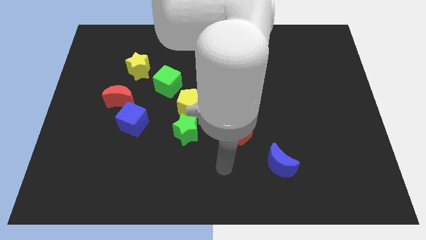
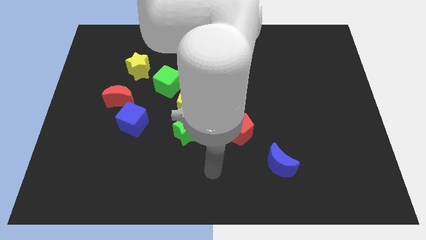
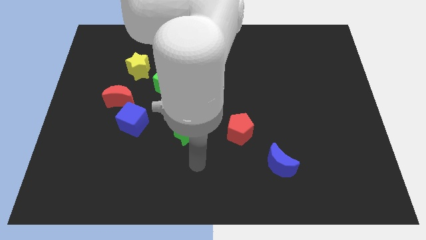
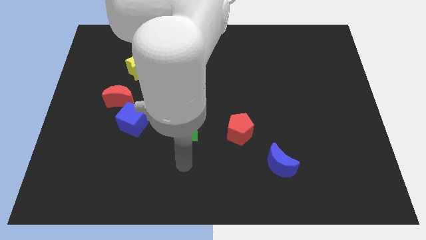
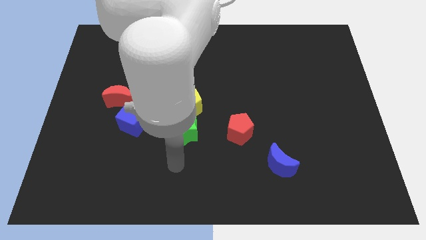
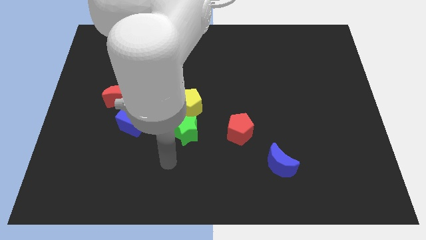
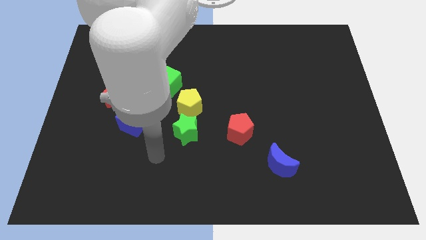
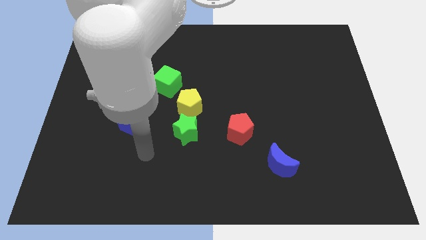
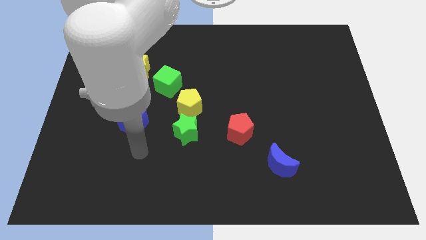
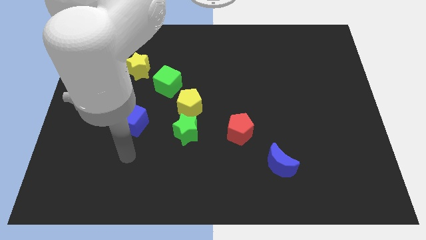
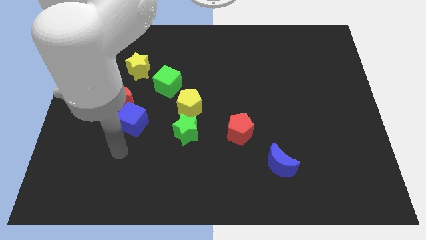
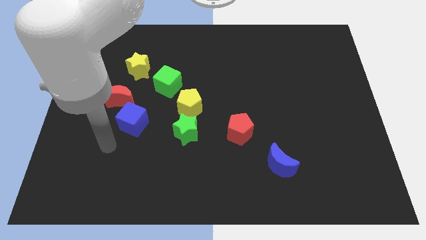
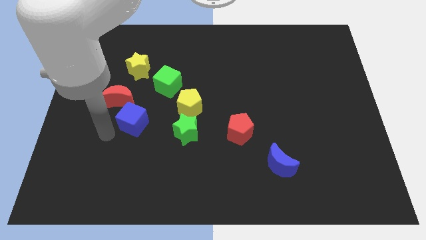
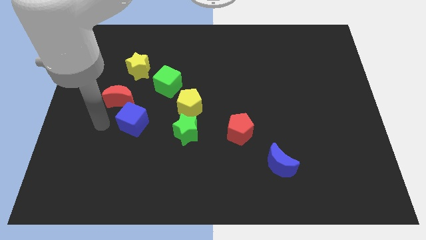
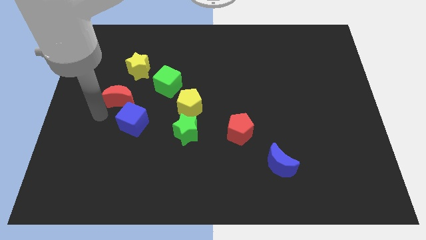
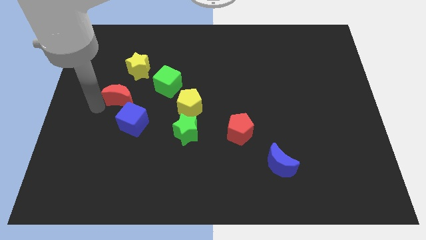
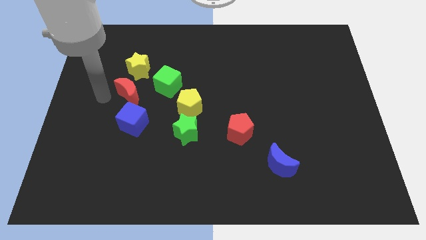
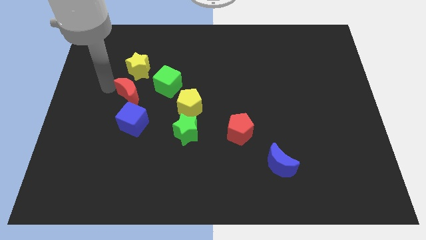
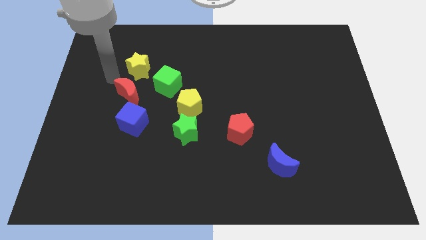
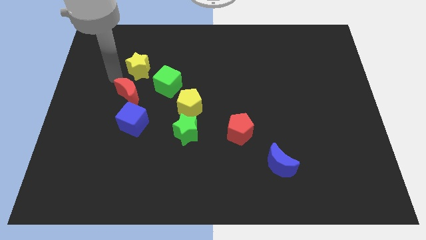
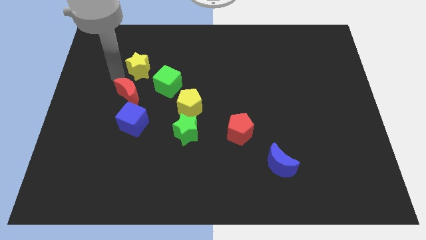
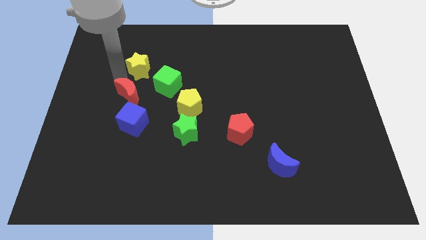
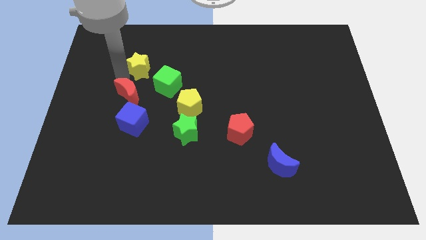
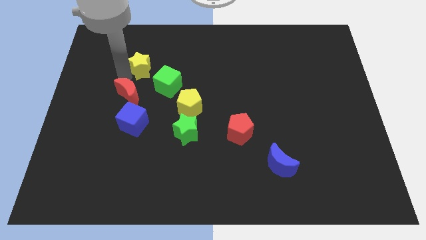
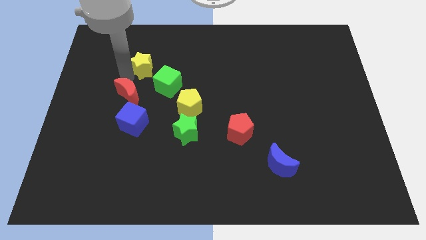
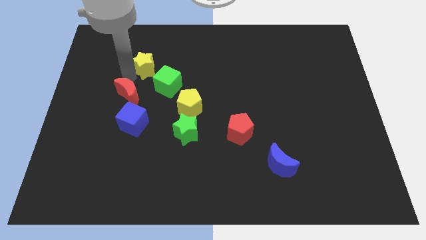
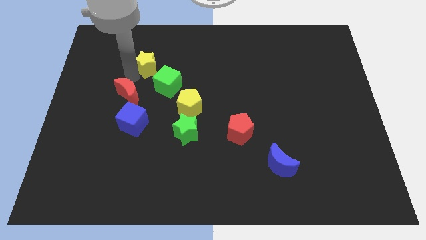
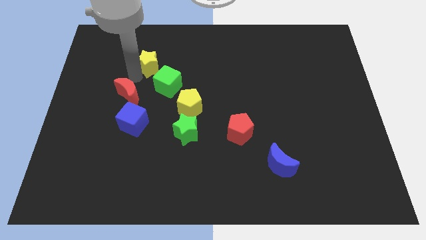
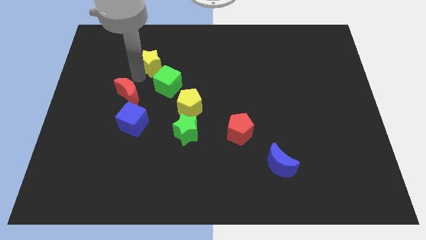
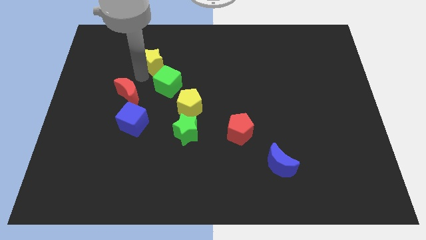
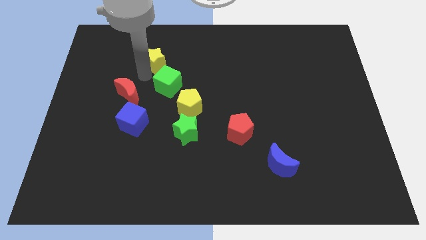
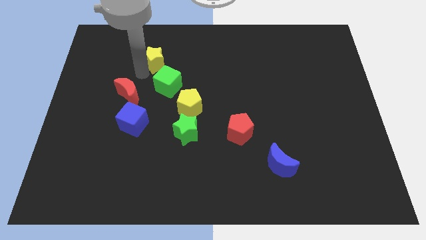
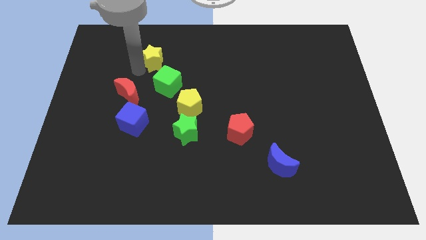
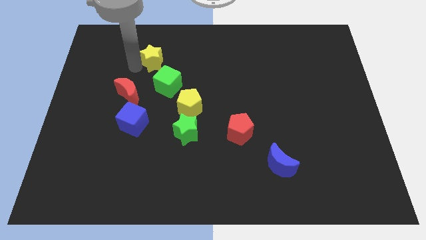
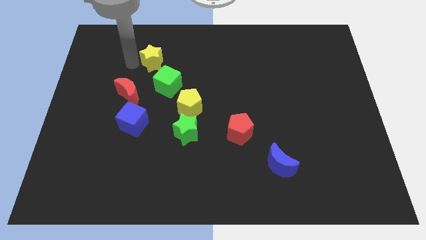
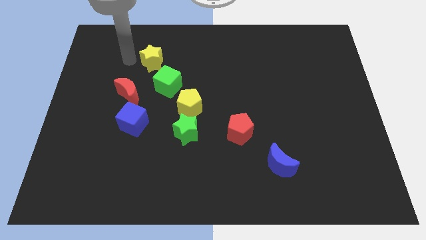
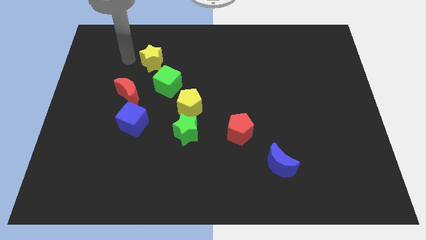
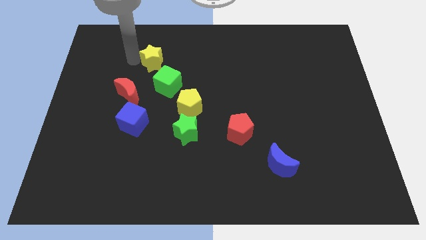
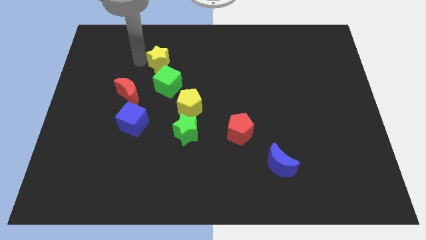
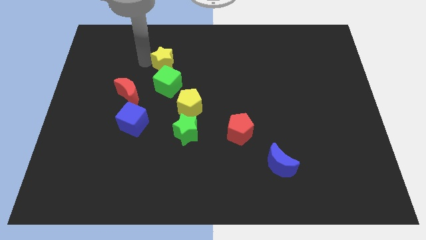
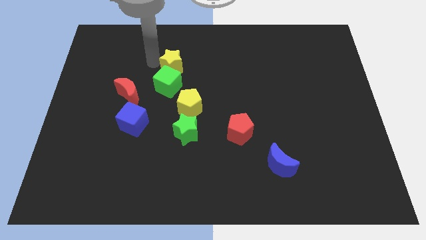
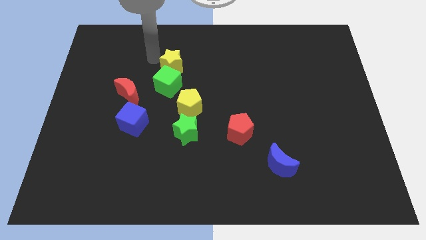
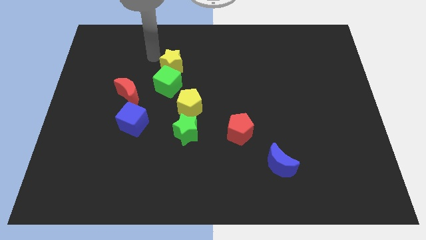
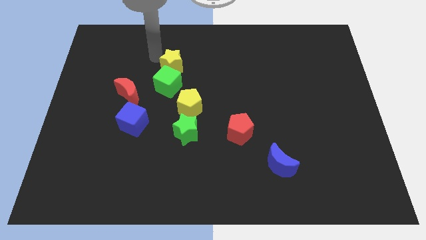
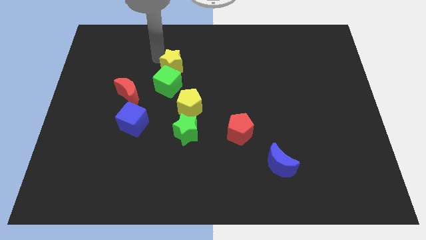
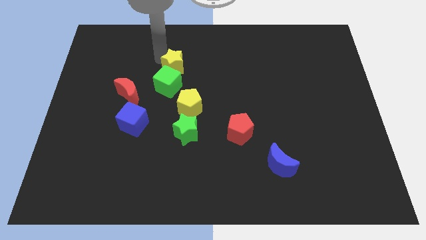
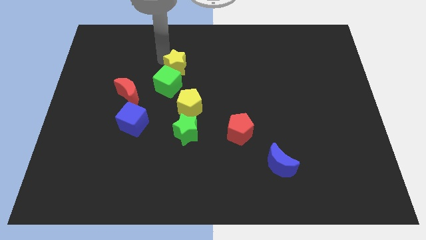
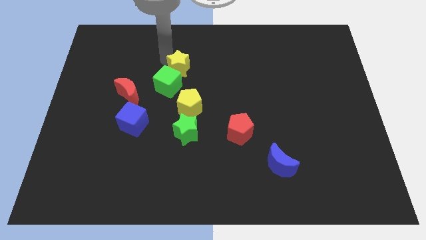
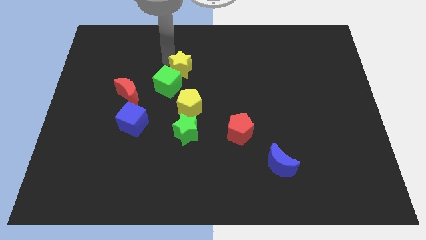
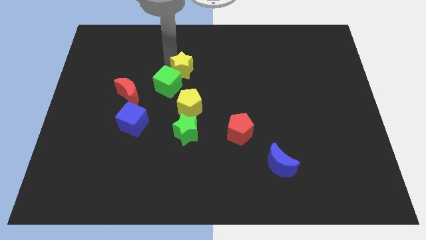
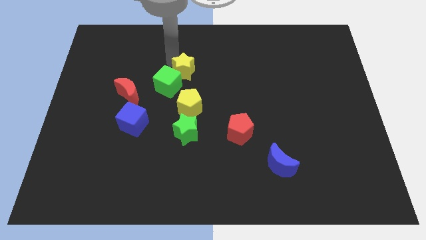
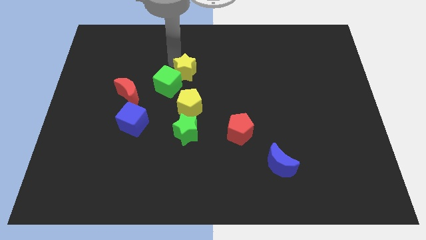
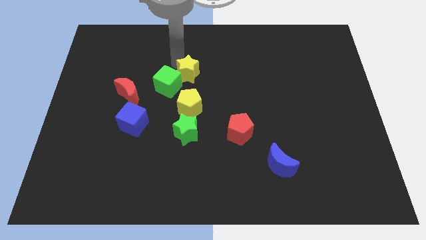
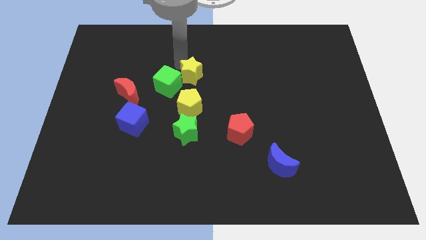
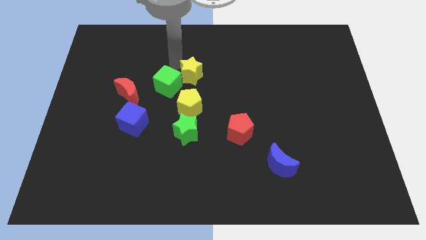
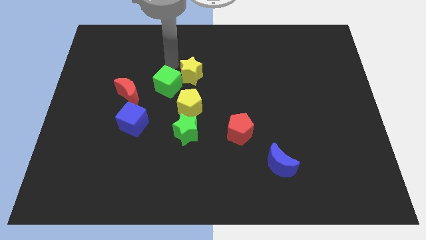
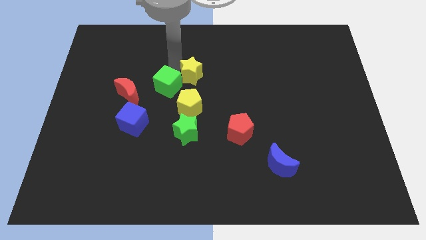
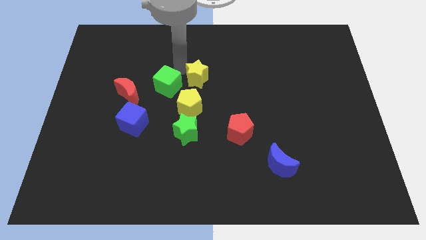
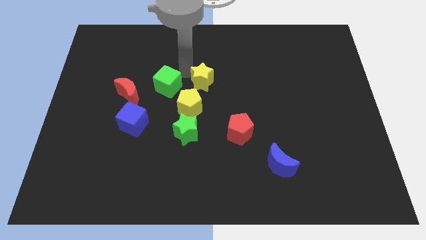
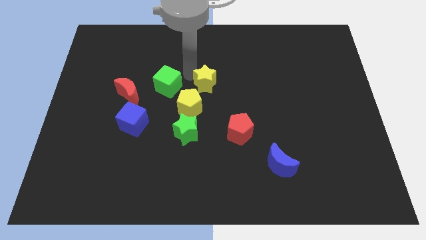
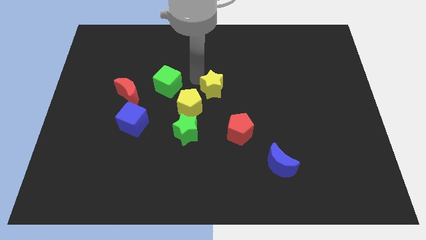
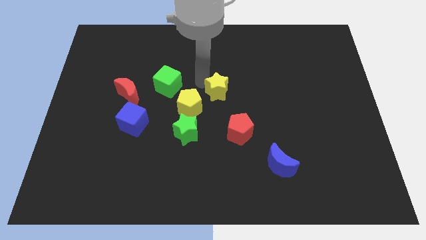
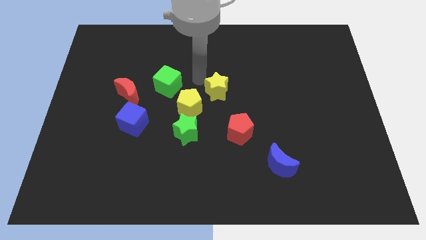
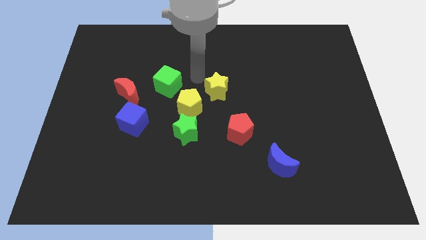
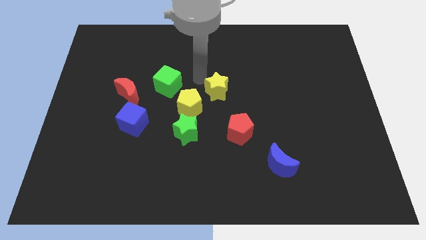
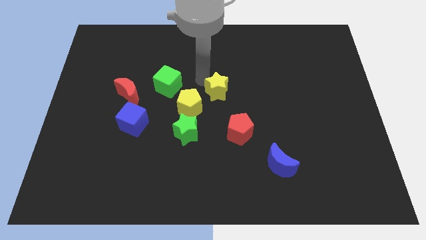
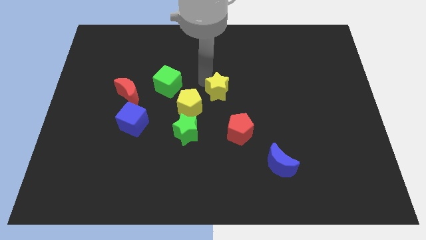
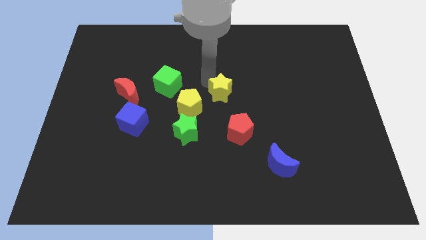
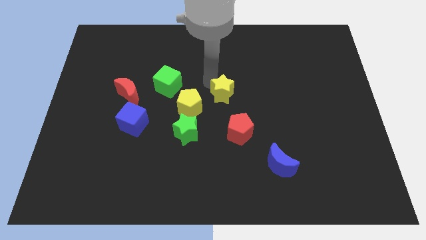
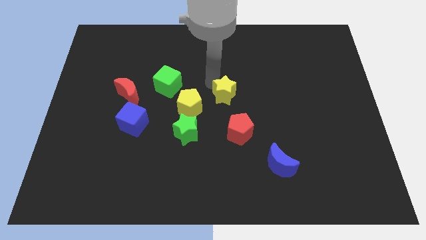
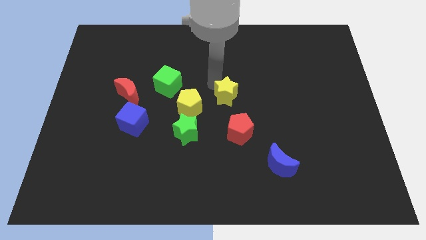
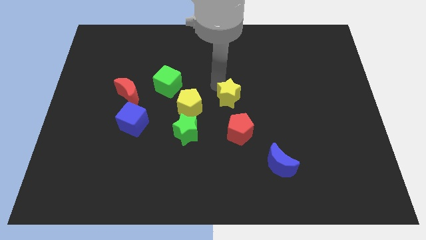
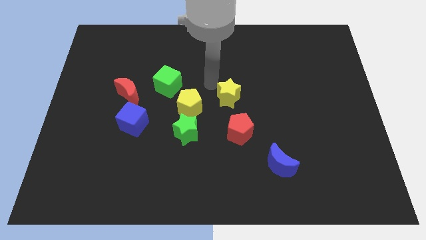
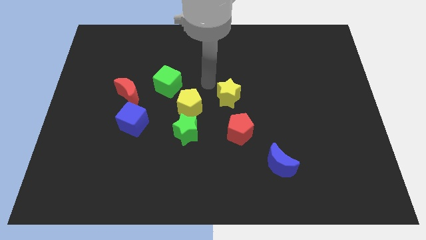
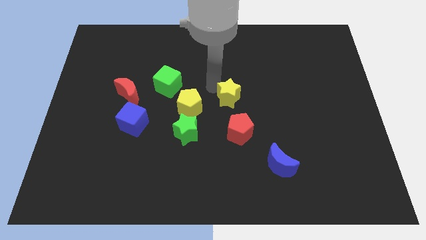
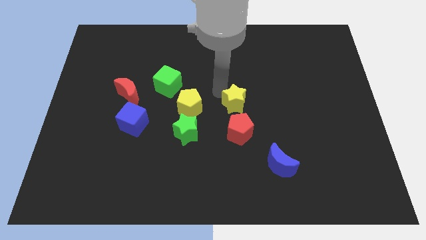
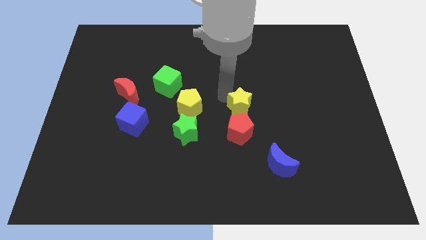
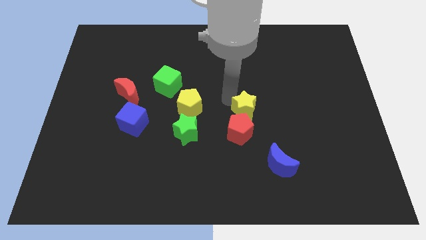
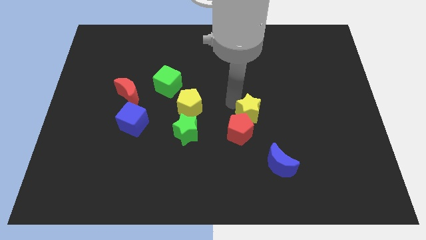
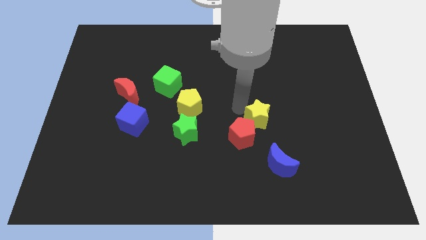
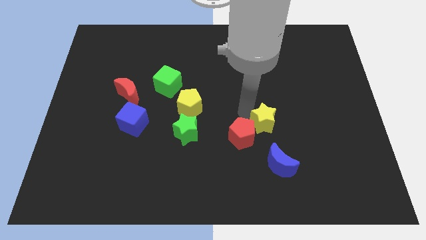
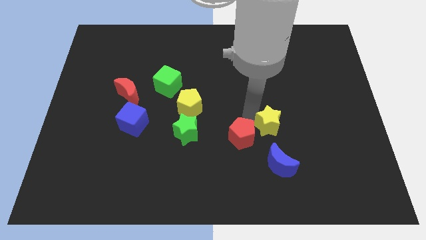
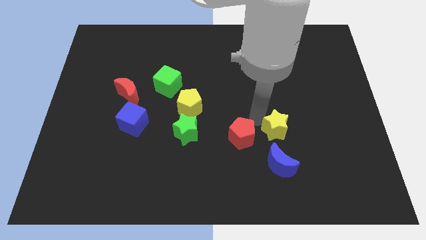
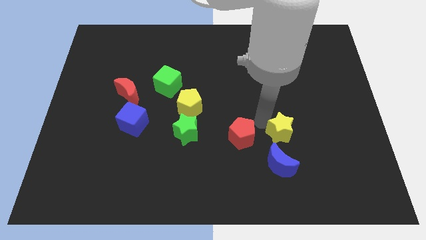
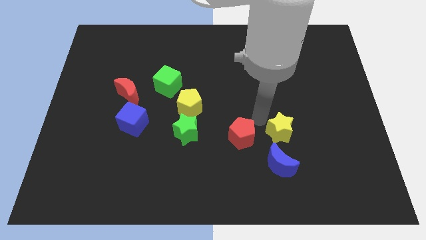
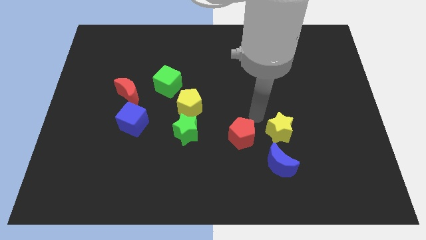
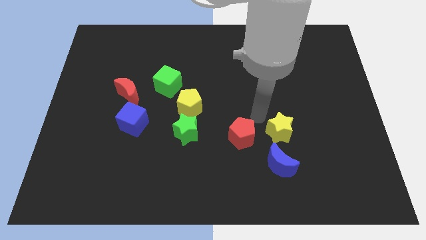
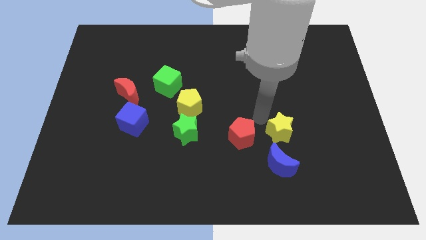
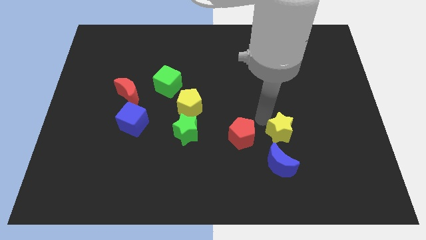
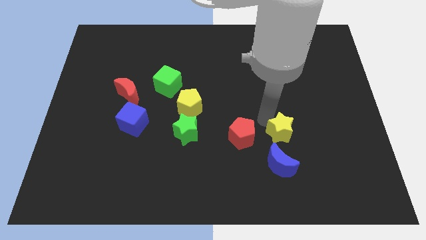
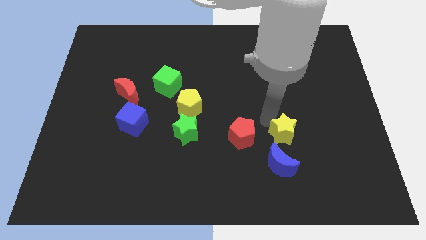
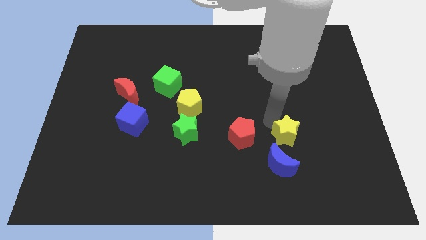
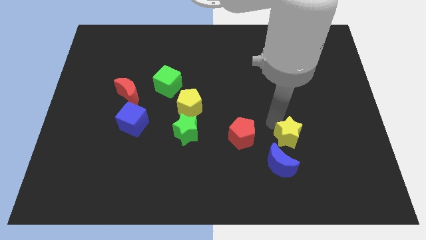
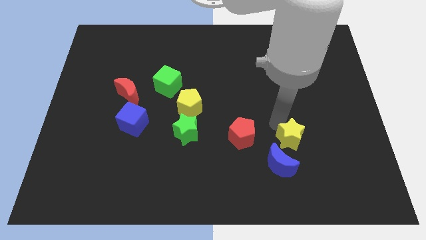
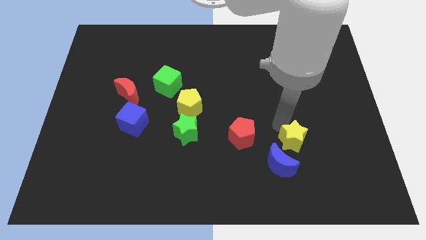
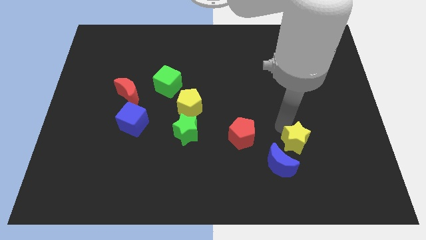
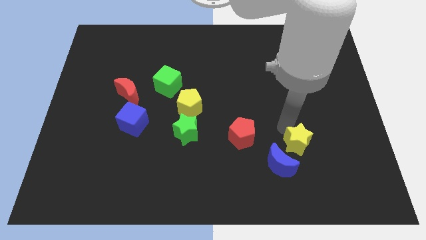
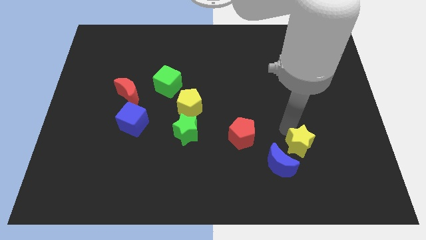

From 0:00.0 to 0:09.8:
slide the yellow star just right of the blue moon
